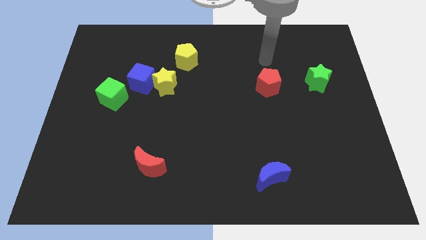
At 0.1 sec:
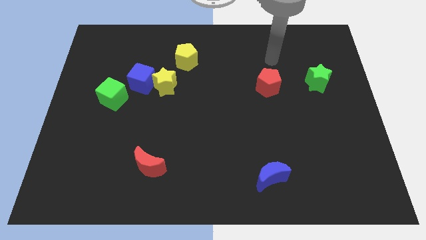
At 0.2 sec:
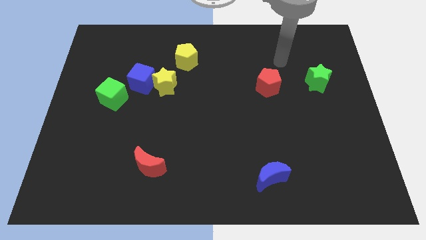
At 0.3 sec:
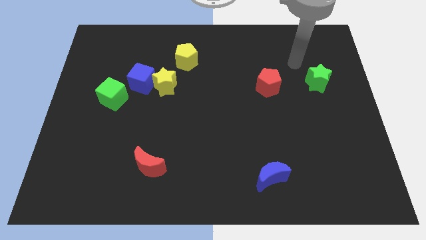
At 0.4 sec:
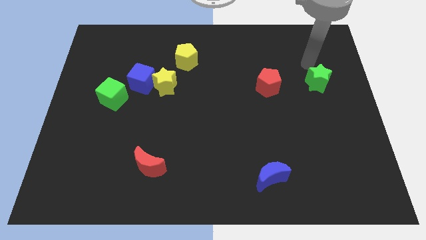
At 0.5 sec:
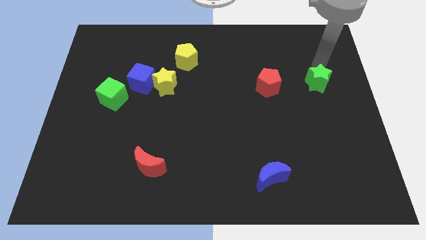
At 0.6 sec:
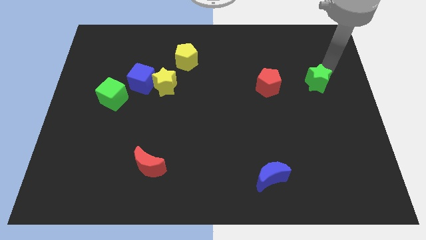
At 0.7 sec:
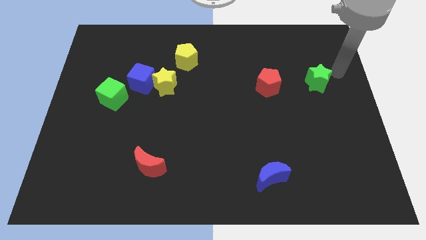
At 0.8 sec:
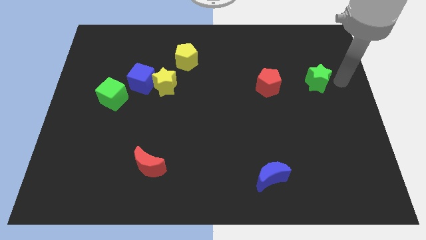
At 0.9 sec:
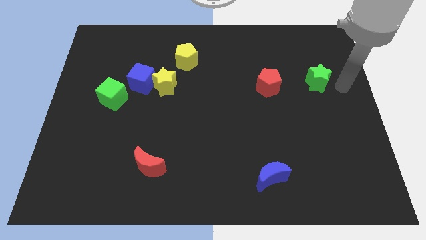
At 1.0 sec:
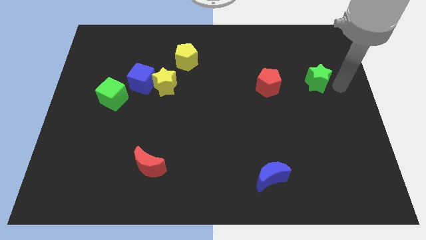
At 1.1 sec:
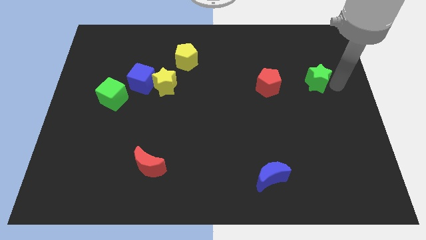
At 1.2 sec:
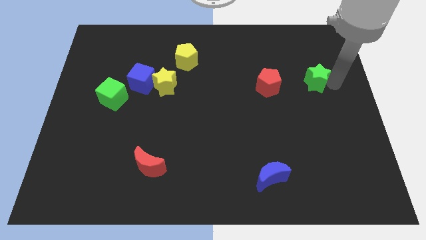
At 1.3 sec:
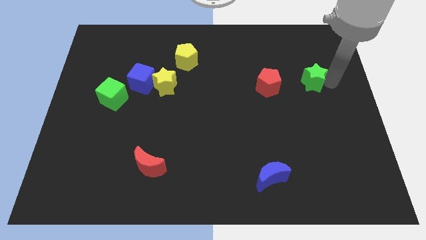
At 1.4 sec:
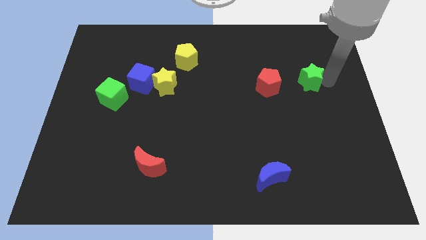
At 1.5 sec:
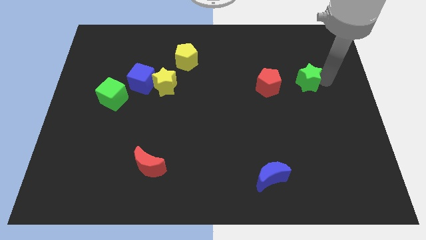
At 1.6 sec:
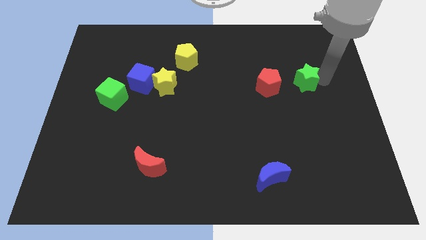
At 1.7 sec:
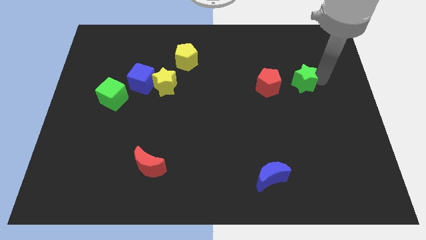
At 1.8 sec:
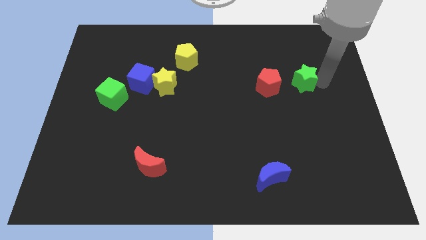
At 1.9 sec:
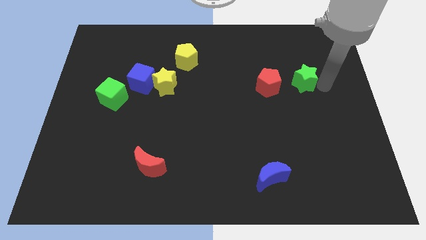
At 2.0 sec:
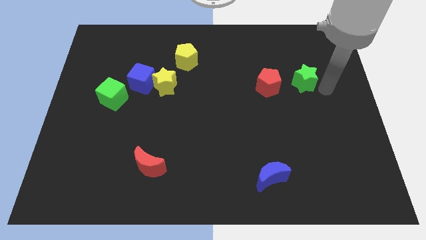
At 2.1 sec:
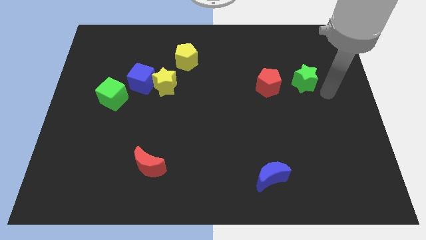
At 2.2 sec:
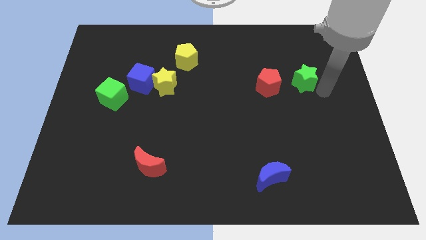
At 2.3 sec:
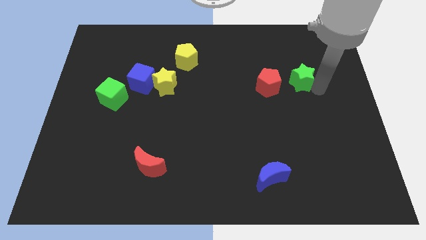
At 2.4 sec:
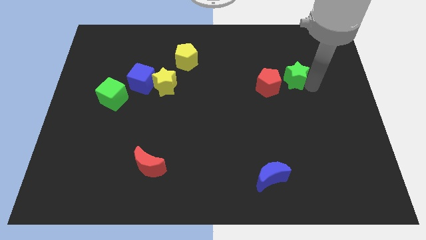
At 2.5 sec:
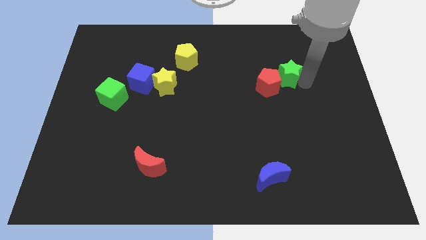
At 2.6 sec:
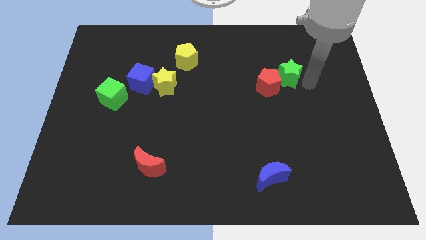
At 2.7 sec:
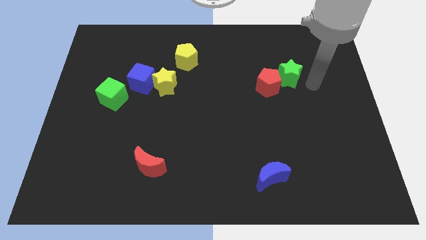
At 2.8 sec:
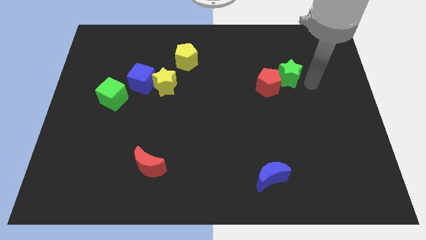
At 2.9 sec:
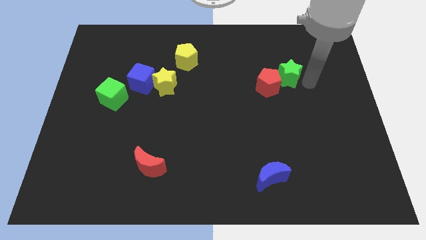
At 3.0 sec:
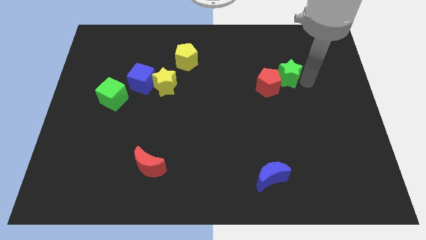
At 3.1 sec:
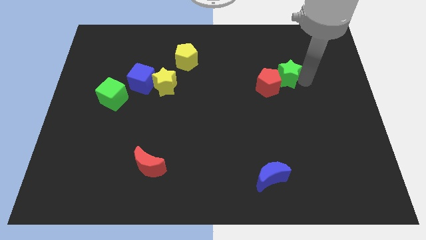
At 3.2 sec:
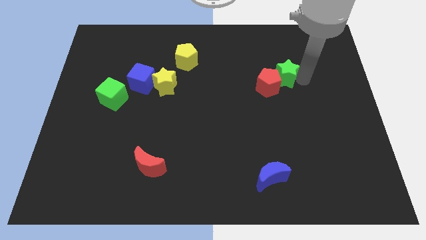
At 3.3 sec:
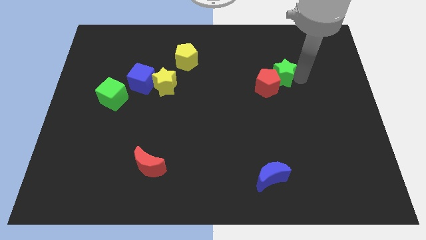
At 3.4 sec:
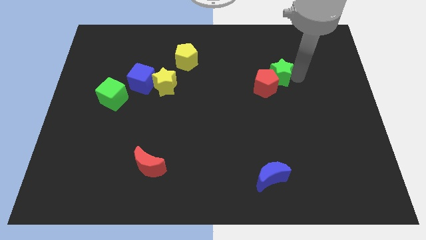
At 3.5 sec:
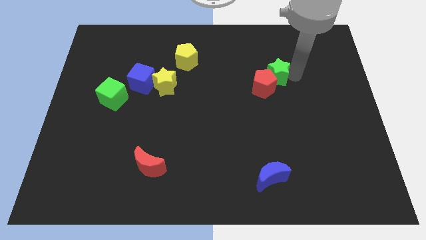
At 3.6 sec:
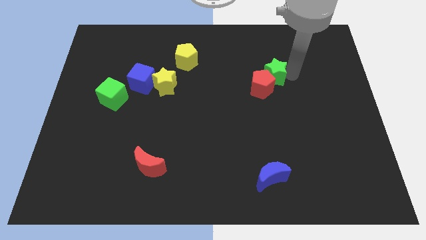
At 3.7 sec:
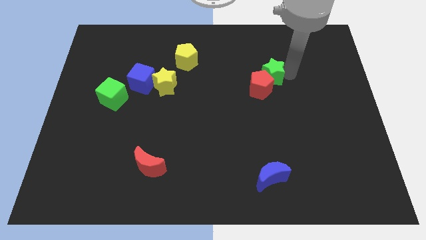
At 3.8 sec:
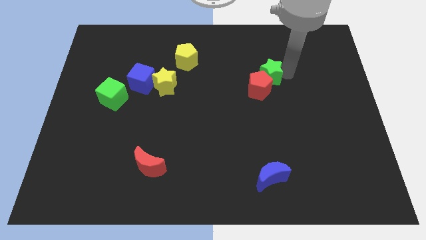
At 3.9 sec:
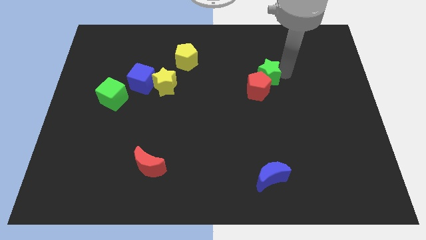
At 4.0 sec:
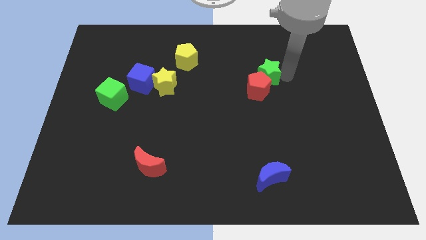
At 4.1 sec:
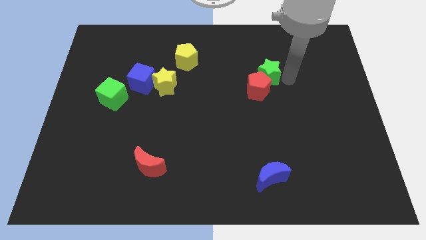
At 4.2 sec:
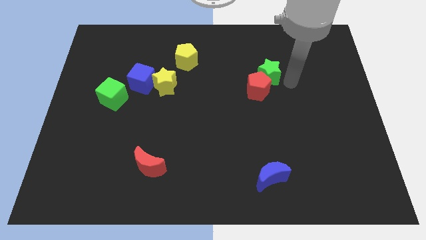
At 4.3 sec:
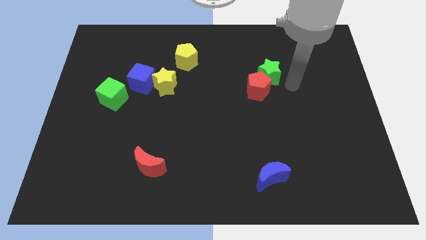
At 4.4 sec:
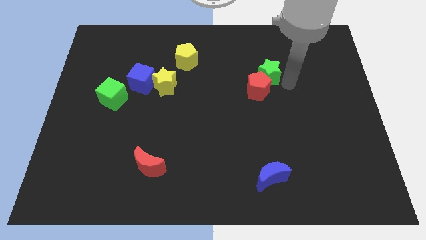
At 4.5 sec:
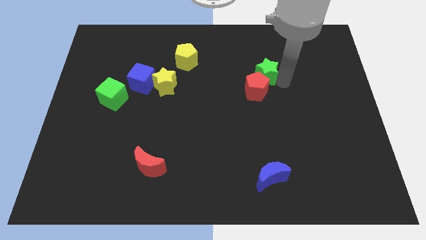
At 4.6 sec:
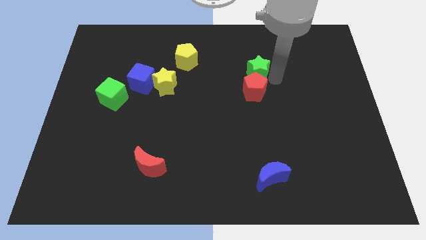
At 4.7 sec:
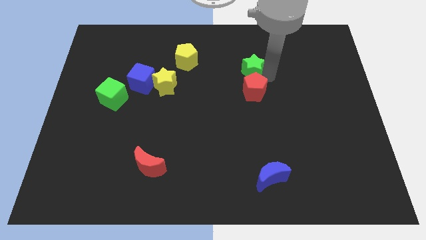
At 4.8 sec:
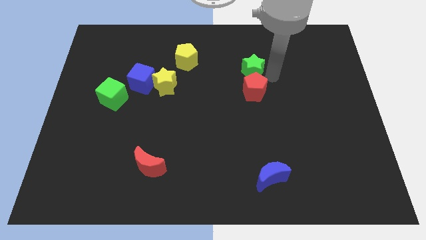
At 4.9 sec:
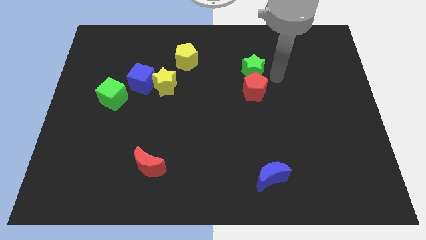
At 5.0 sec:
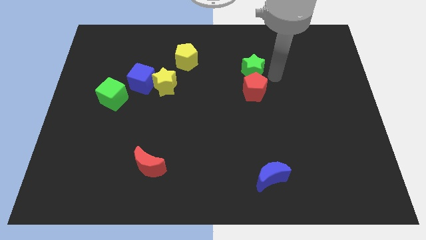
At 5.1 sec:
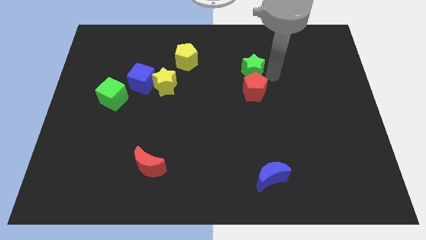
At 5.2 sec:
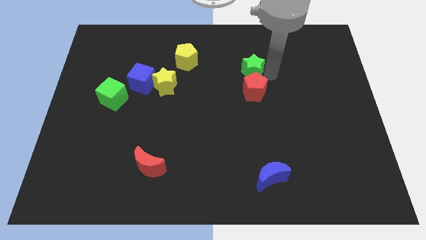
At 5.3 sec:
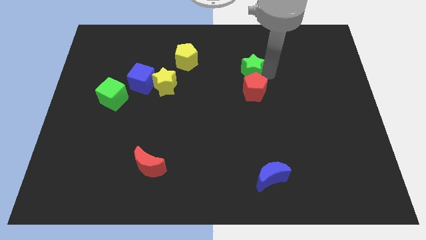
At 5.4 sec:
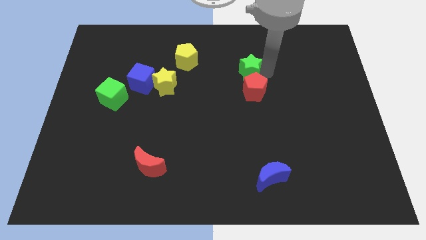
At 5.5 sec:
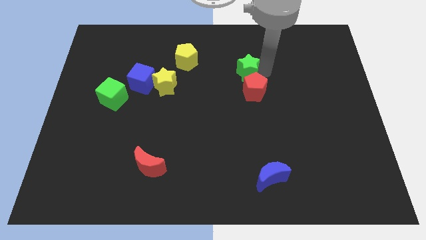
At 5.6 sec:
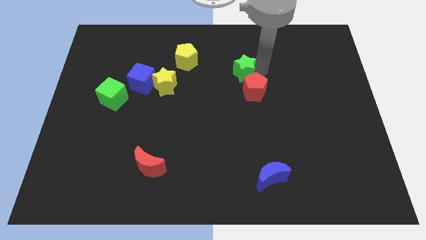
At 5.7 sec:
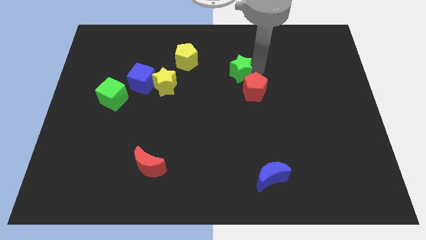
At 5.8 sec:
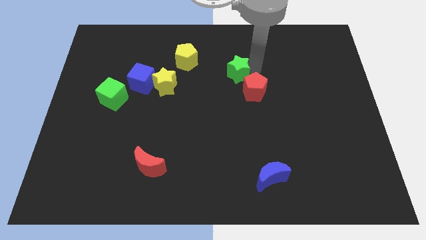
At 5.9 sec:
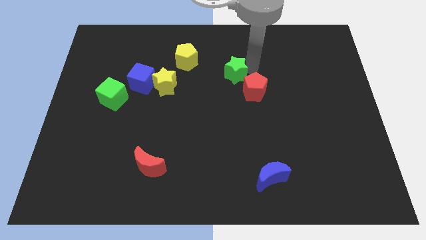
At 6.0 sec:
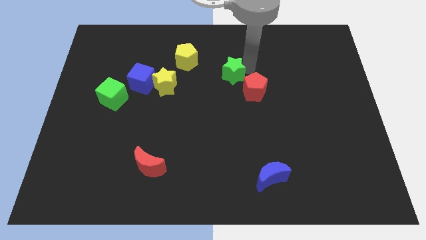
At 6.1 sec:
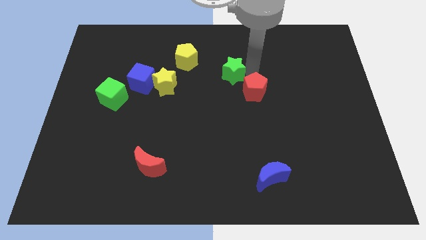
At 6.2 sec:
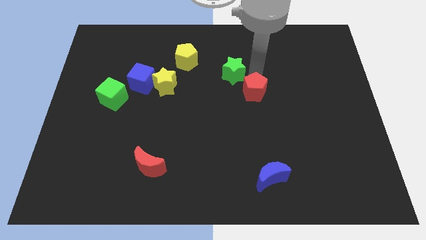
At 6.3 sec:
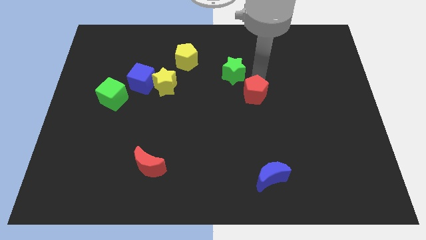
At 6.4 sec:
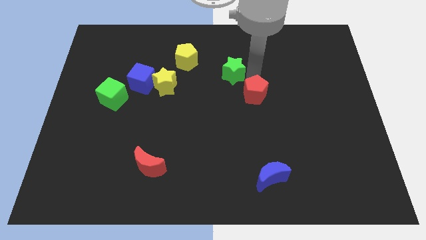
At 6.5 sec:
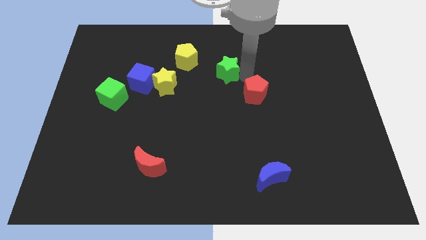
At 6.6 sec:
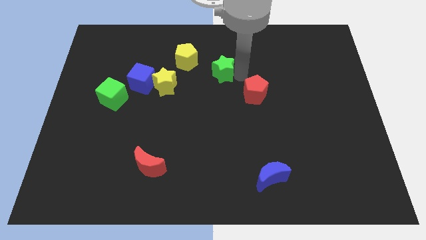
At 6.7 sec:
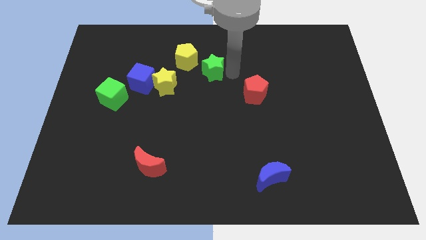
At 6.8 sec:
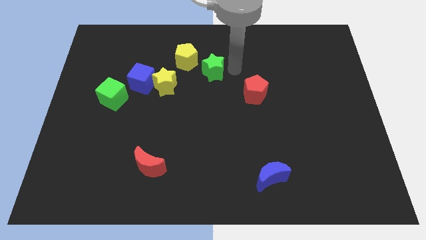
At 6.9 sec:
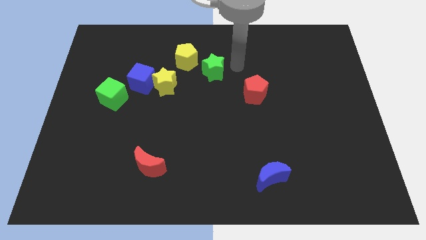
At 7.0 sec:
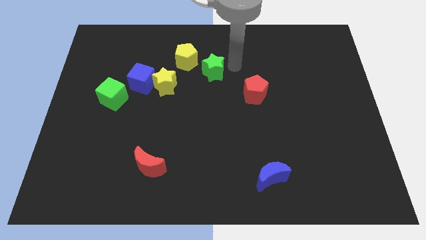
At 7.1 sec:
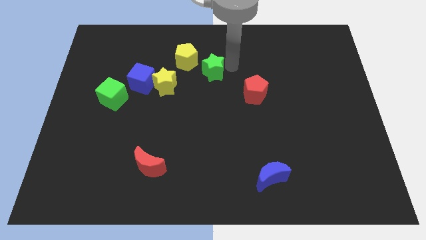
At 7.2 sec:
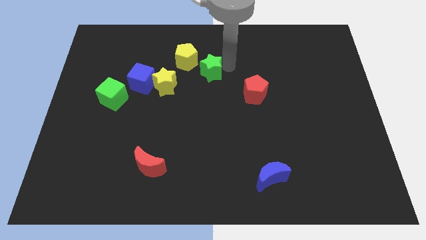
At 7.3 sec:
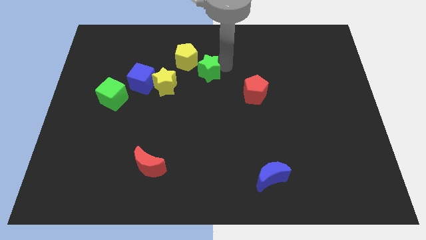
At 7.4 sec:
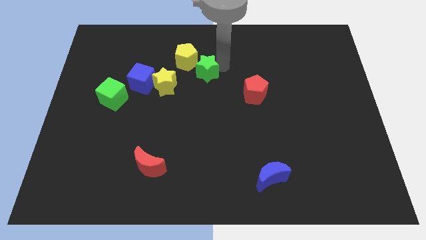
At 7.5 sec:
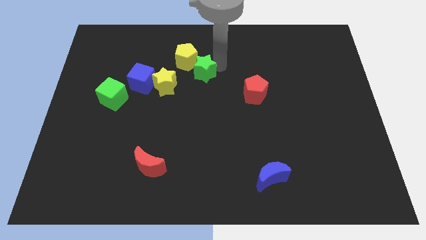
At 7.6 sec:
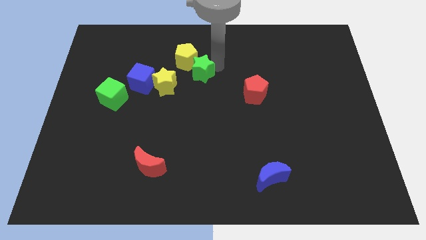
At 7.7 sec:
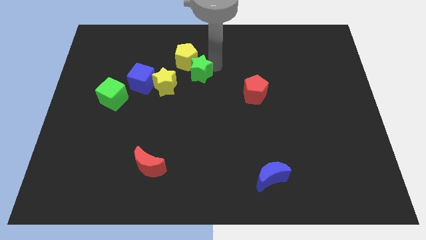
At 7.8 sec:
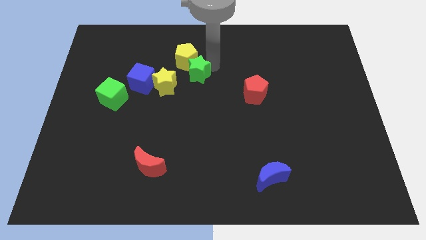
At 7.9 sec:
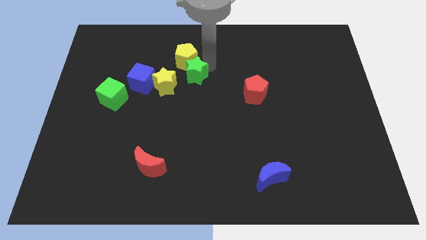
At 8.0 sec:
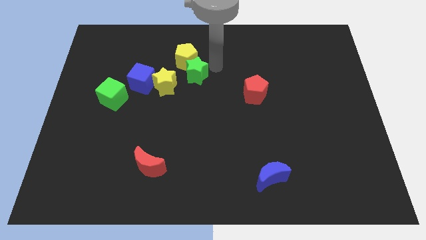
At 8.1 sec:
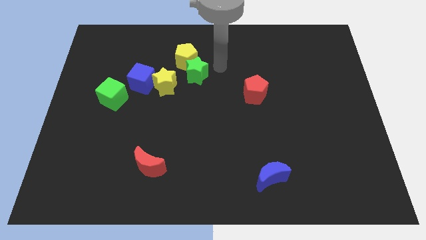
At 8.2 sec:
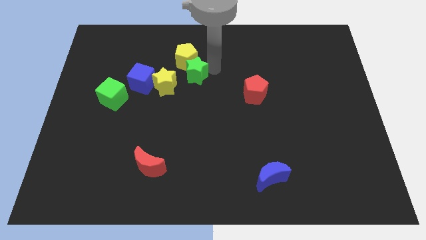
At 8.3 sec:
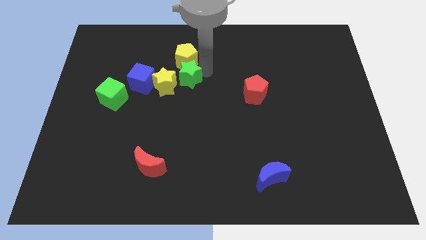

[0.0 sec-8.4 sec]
slide the green star to the yellow star
